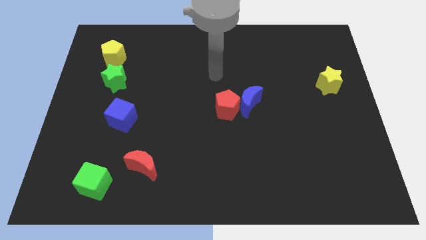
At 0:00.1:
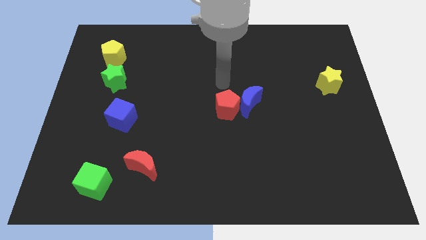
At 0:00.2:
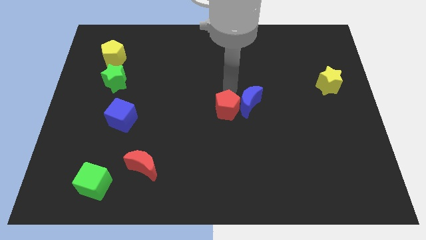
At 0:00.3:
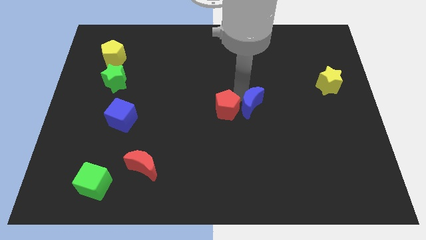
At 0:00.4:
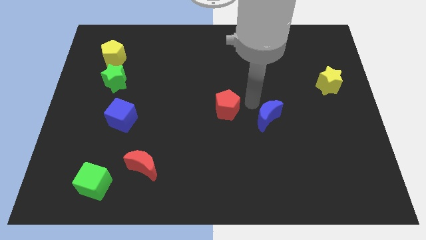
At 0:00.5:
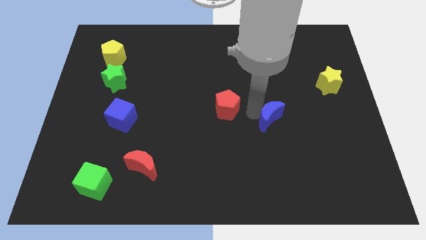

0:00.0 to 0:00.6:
pull the red pentagon apart from the blue moon

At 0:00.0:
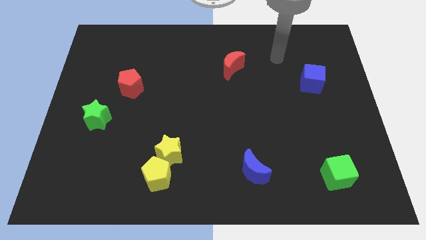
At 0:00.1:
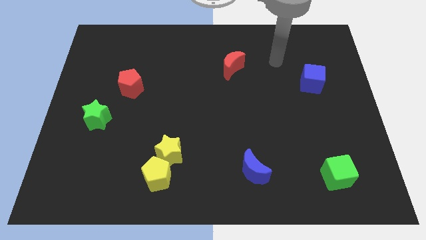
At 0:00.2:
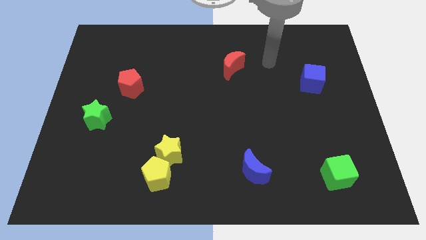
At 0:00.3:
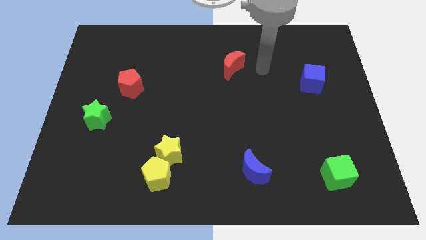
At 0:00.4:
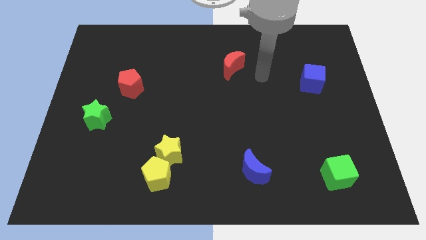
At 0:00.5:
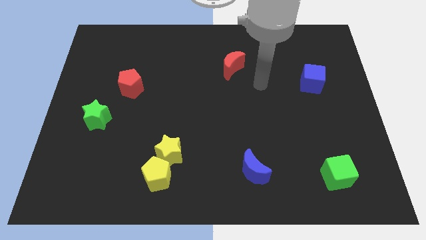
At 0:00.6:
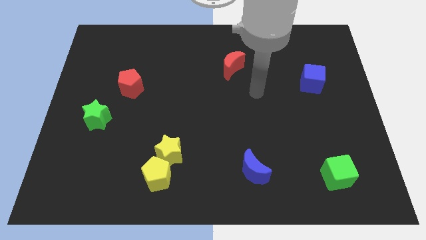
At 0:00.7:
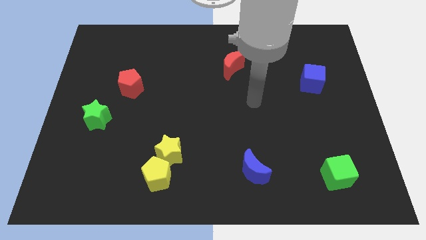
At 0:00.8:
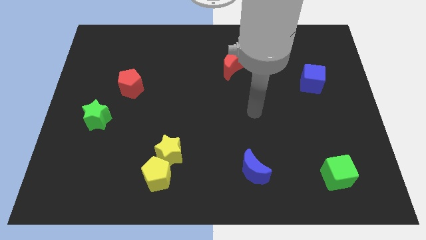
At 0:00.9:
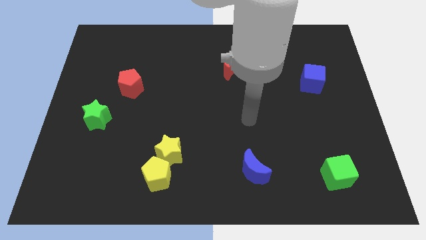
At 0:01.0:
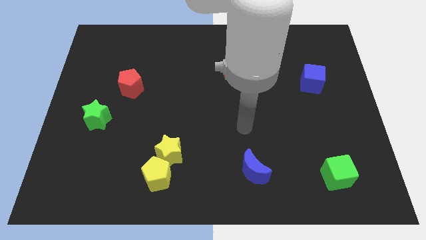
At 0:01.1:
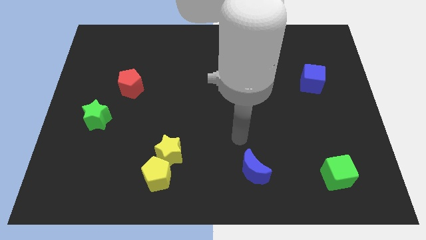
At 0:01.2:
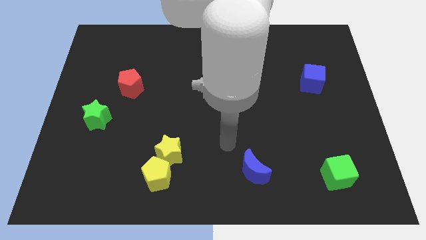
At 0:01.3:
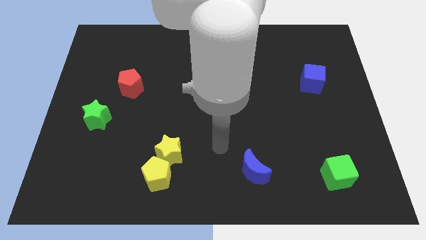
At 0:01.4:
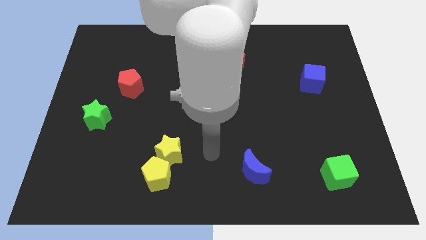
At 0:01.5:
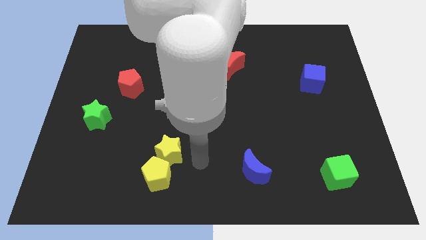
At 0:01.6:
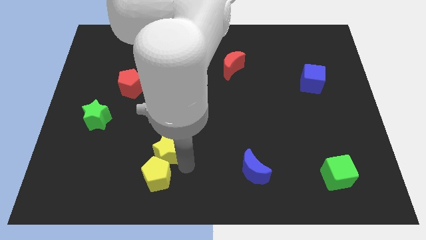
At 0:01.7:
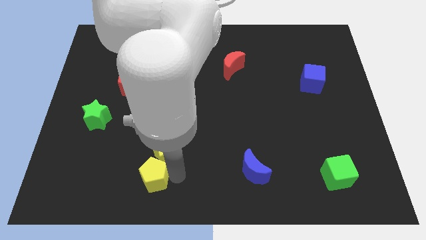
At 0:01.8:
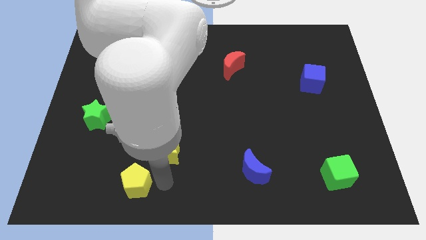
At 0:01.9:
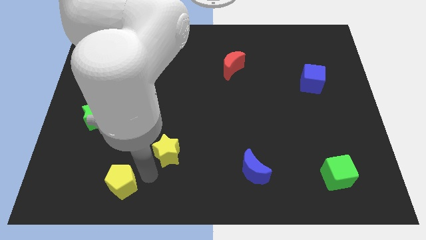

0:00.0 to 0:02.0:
pull the yellow star apart from the yellow pentagon

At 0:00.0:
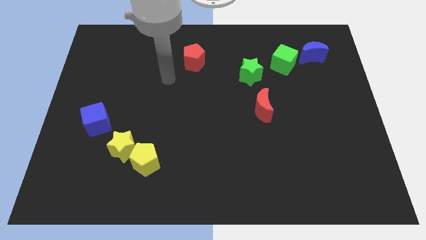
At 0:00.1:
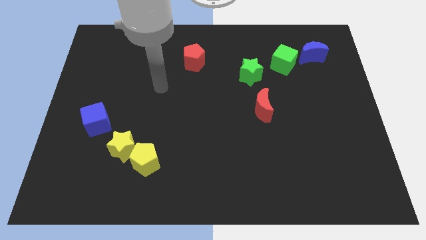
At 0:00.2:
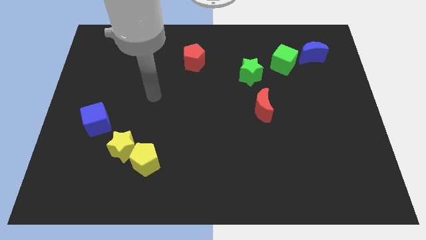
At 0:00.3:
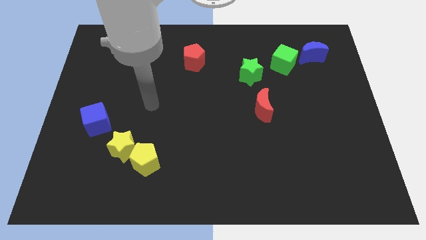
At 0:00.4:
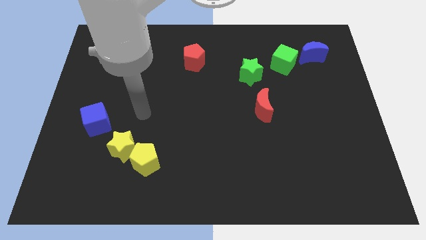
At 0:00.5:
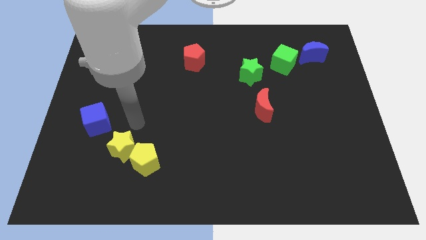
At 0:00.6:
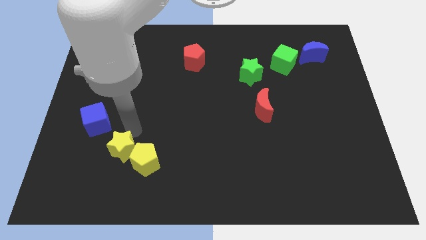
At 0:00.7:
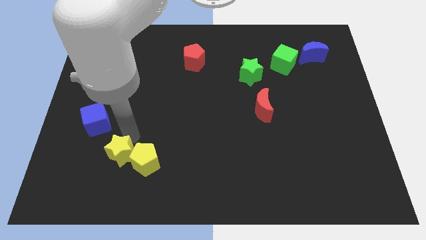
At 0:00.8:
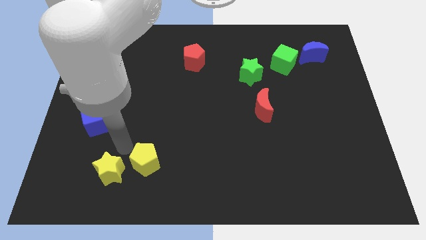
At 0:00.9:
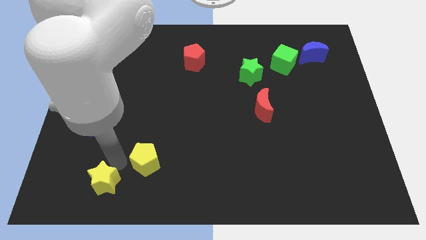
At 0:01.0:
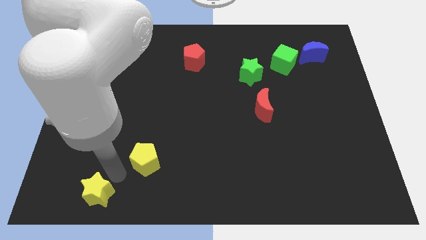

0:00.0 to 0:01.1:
move the yellow pentagon away from the yellow star

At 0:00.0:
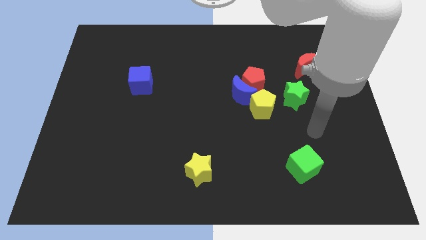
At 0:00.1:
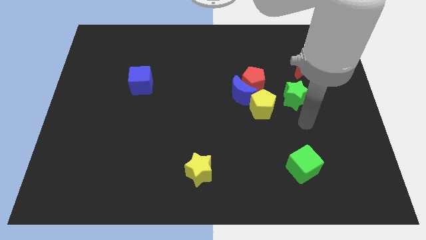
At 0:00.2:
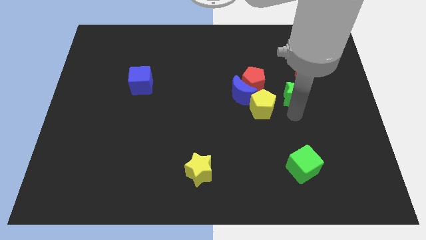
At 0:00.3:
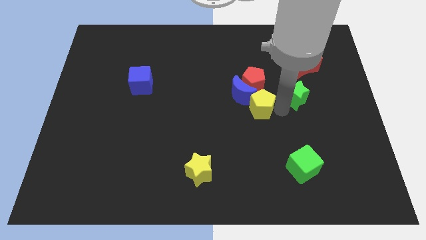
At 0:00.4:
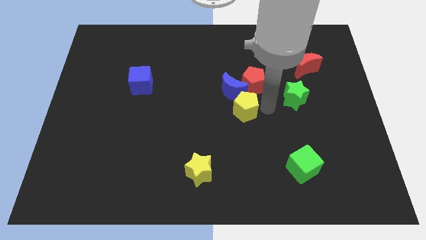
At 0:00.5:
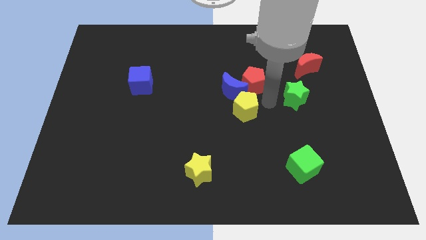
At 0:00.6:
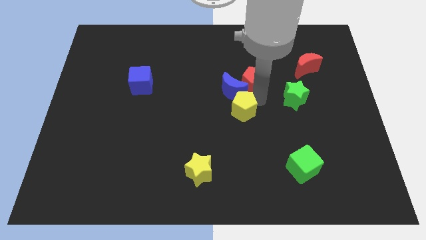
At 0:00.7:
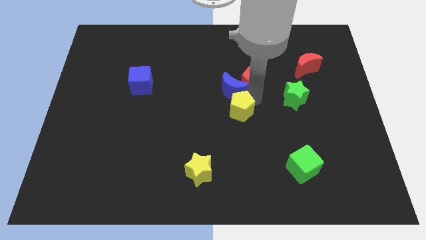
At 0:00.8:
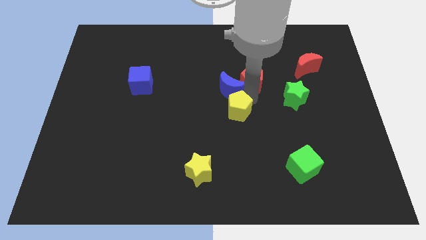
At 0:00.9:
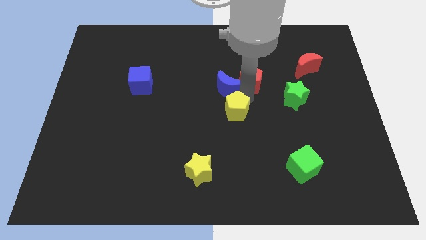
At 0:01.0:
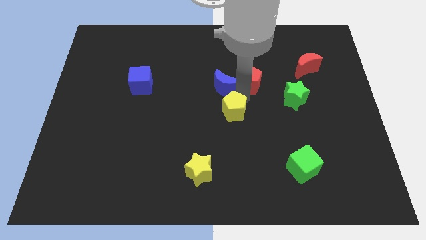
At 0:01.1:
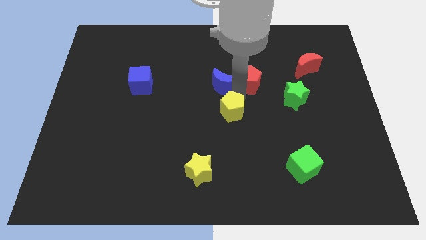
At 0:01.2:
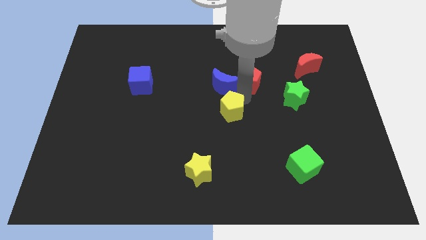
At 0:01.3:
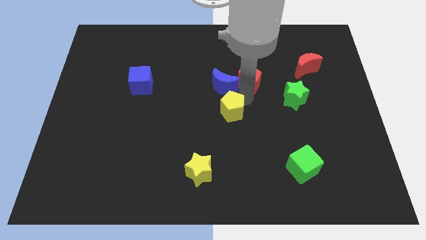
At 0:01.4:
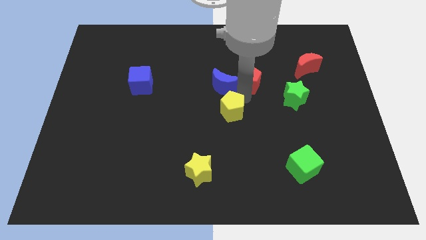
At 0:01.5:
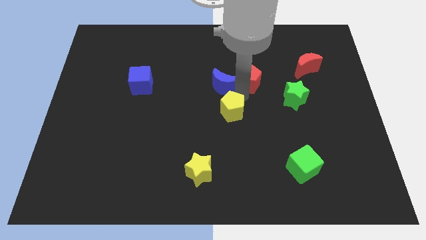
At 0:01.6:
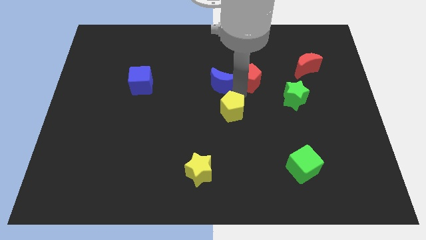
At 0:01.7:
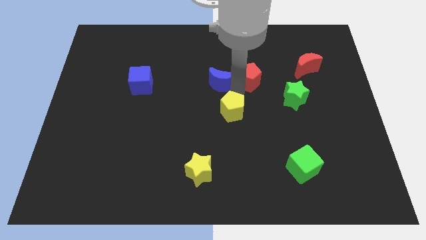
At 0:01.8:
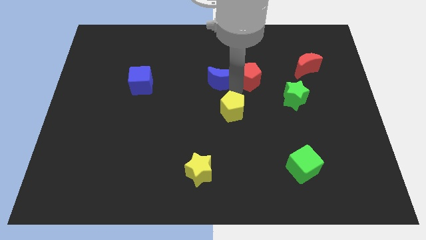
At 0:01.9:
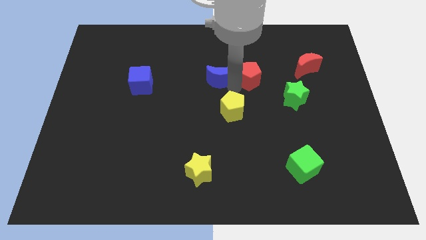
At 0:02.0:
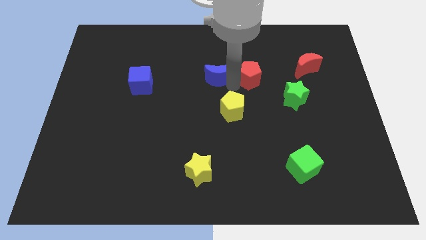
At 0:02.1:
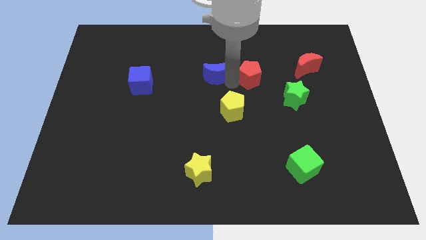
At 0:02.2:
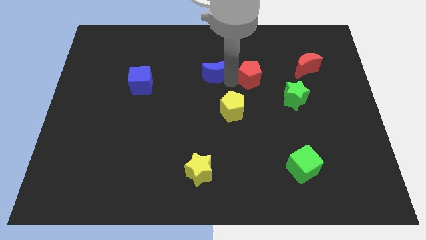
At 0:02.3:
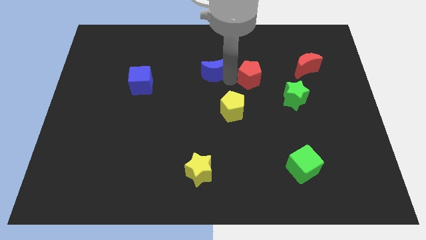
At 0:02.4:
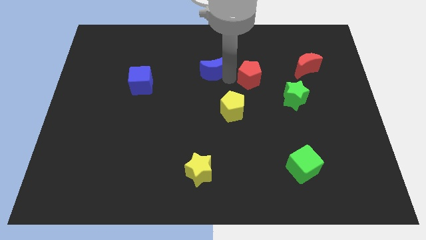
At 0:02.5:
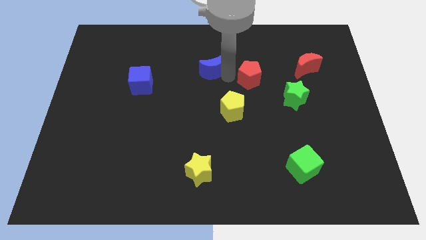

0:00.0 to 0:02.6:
pull the blue moon apart from the red pentagon and yellow pentagon

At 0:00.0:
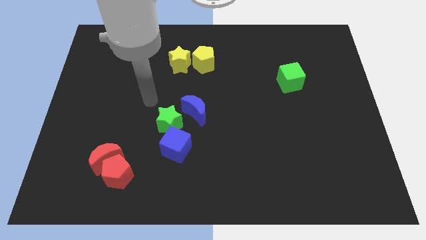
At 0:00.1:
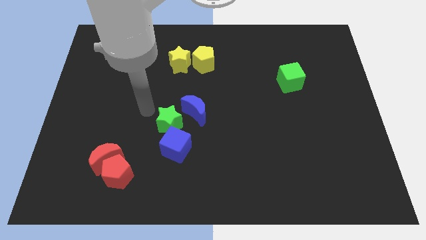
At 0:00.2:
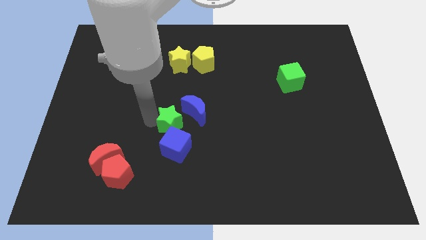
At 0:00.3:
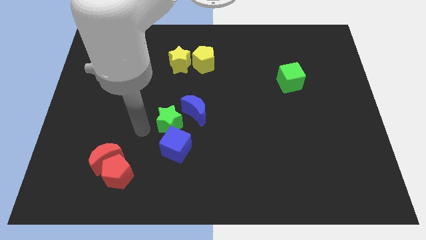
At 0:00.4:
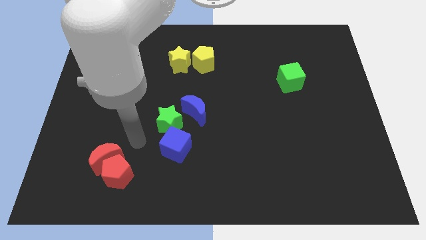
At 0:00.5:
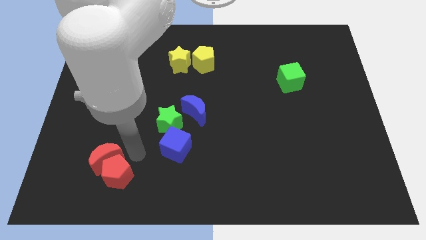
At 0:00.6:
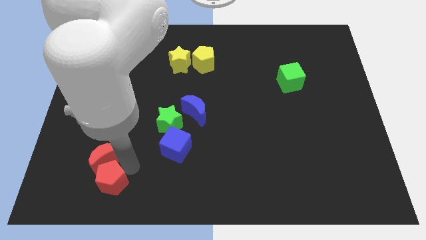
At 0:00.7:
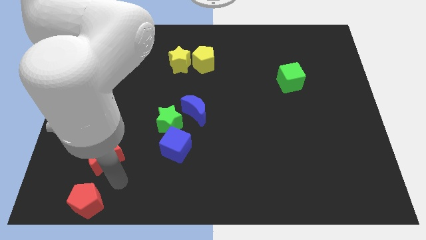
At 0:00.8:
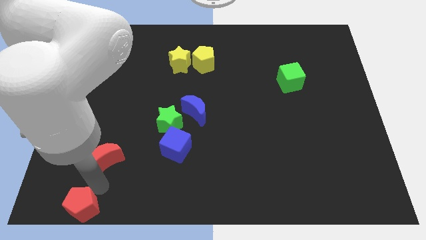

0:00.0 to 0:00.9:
move the red moon away from the red pentagon

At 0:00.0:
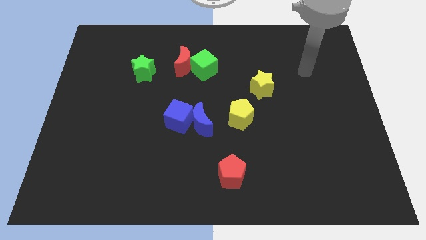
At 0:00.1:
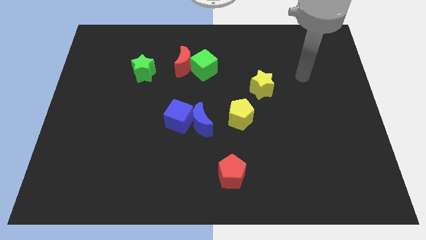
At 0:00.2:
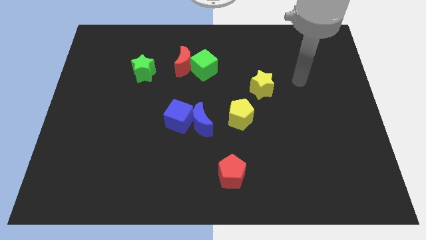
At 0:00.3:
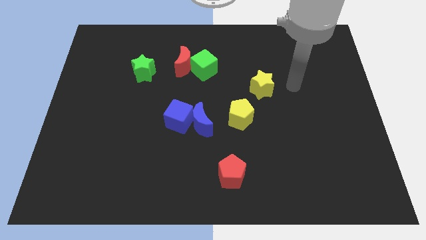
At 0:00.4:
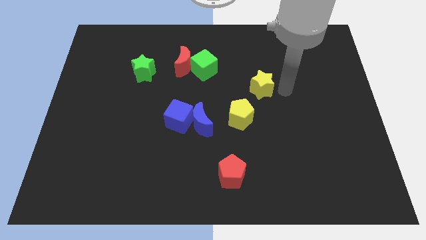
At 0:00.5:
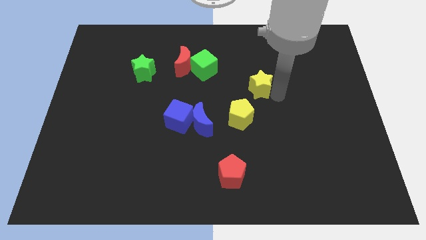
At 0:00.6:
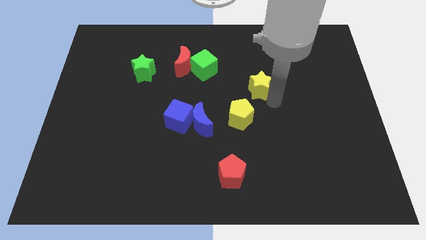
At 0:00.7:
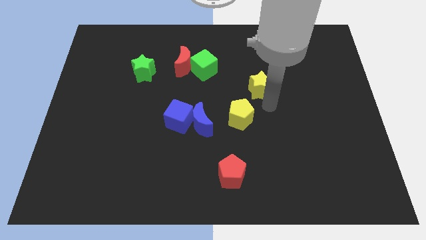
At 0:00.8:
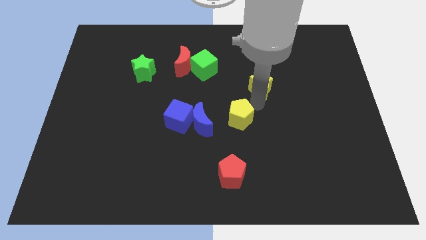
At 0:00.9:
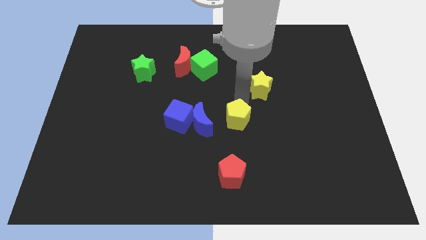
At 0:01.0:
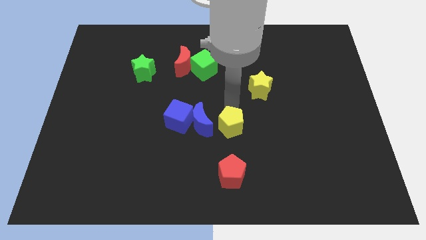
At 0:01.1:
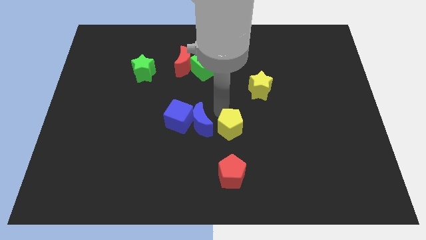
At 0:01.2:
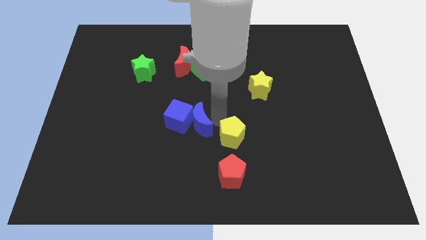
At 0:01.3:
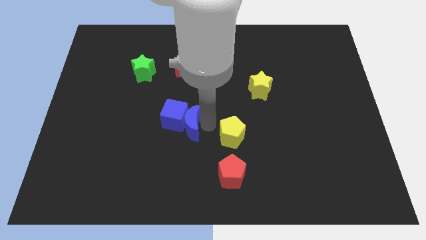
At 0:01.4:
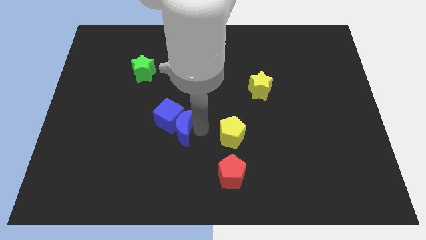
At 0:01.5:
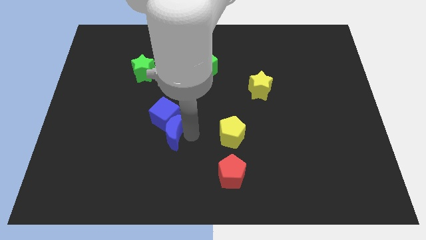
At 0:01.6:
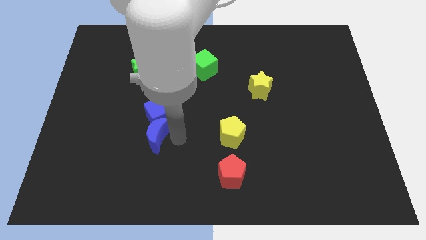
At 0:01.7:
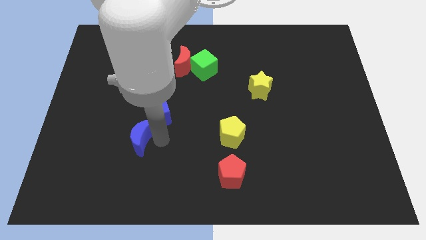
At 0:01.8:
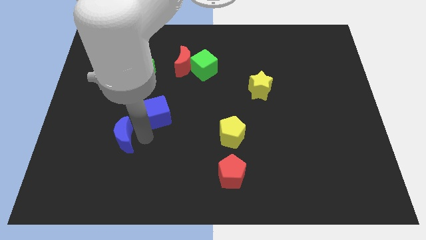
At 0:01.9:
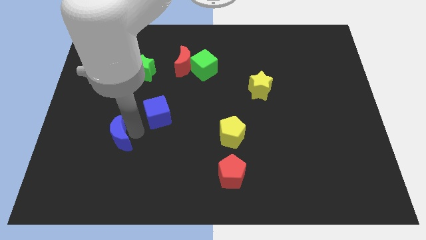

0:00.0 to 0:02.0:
move the blue cube away from the blue moon
